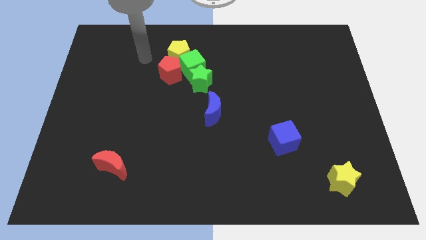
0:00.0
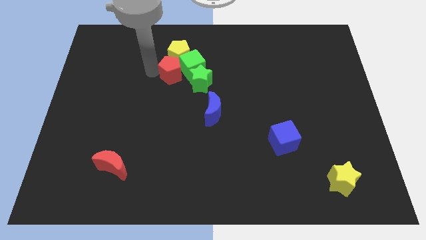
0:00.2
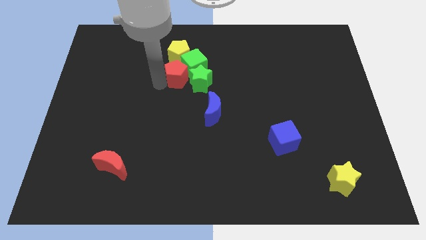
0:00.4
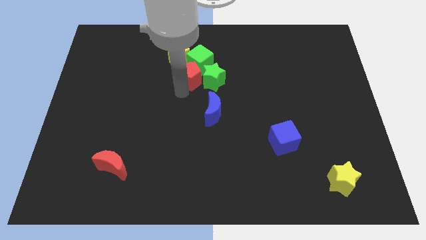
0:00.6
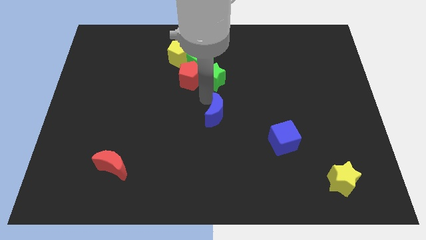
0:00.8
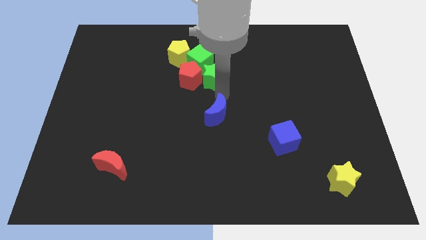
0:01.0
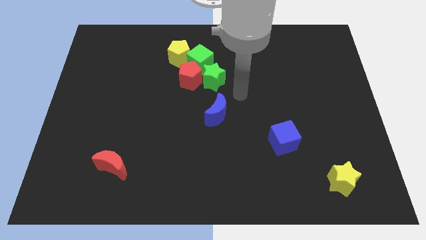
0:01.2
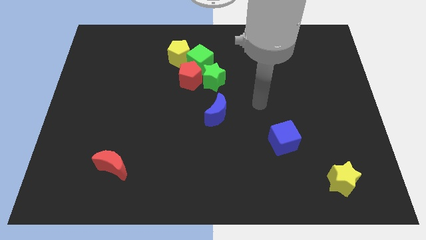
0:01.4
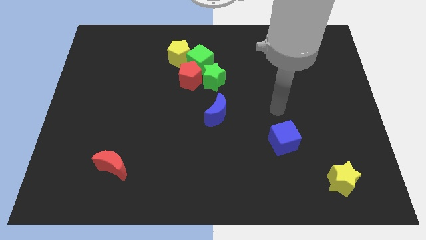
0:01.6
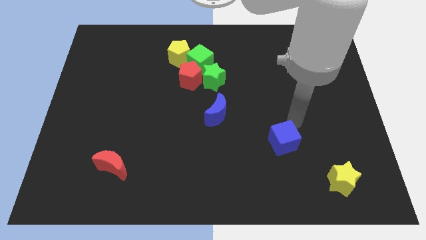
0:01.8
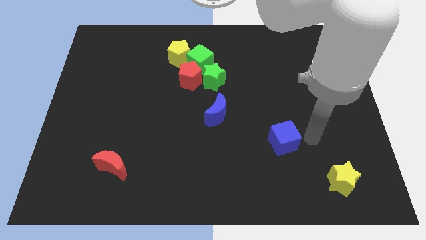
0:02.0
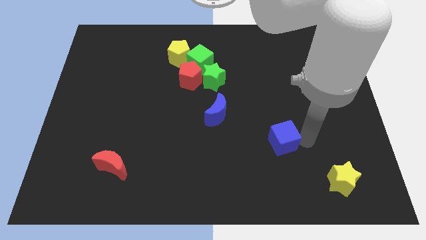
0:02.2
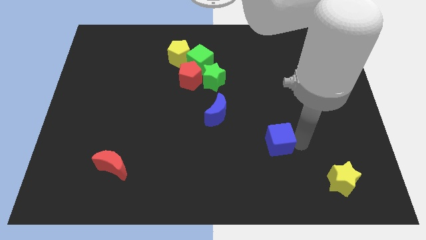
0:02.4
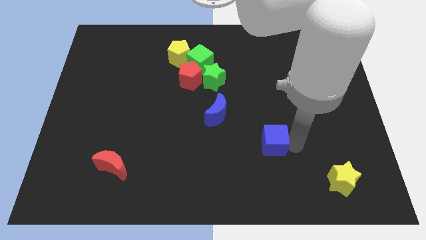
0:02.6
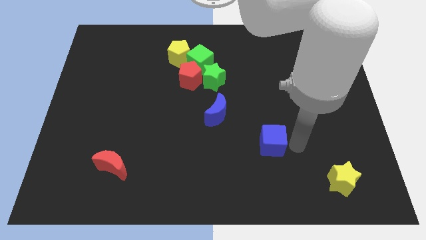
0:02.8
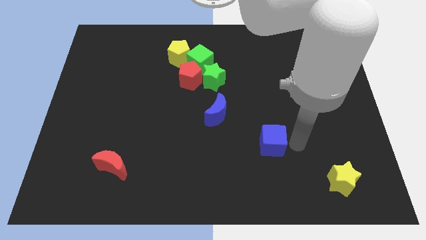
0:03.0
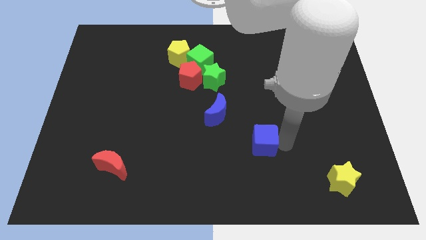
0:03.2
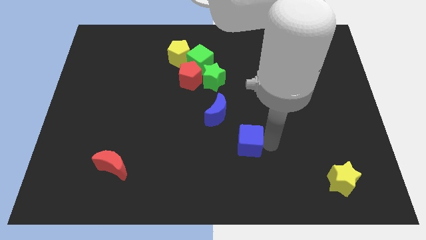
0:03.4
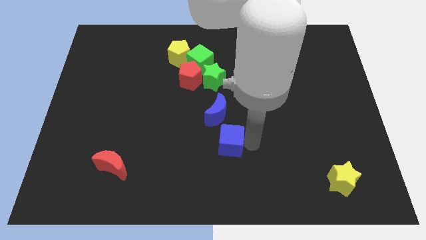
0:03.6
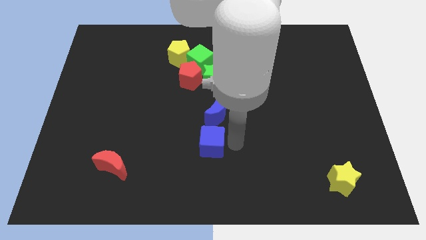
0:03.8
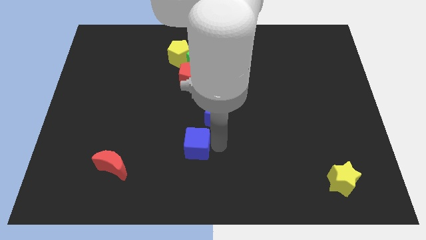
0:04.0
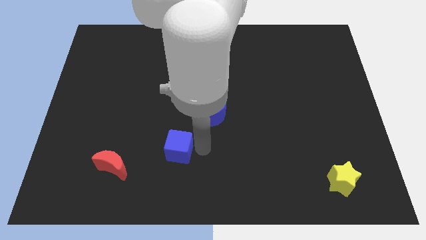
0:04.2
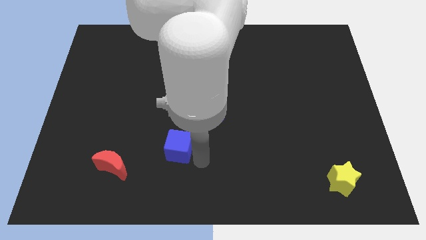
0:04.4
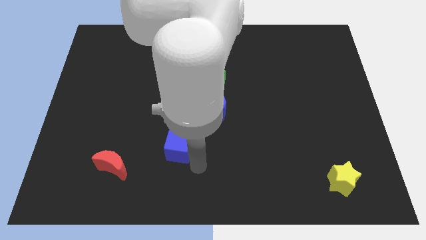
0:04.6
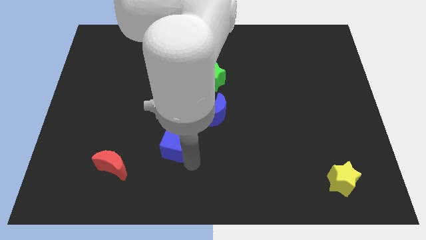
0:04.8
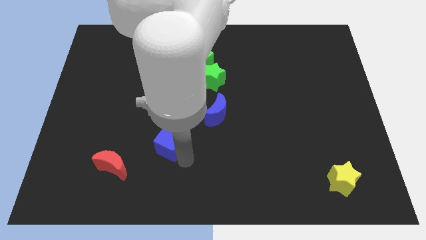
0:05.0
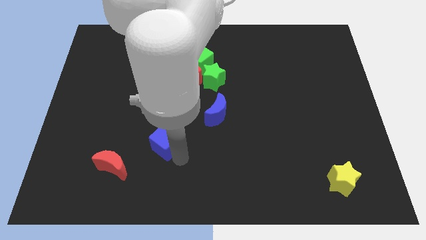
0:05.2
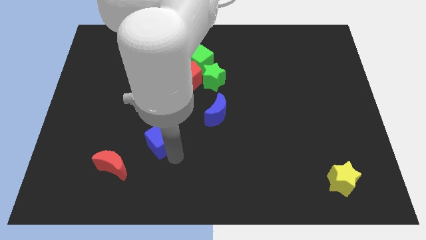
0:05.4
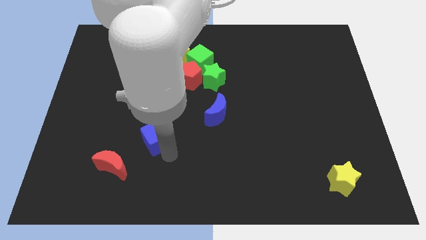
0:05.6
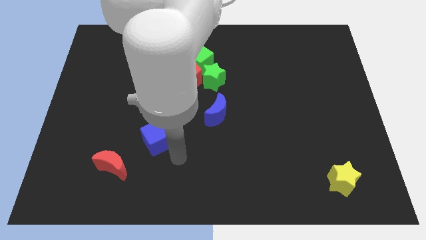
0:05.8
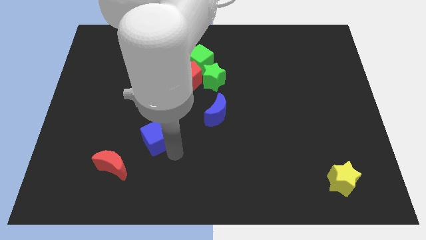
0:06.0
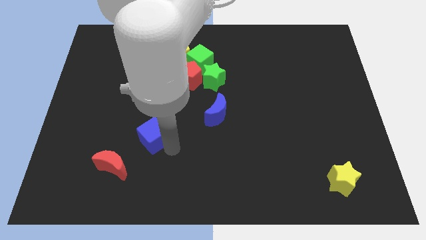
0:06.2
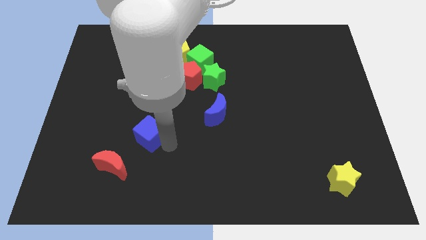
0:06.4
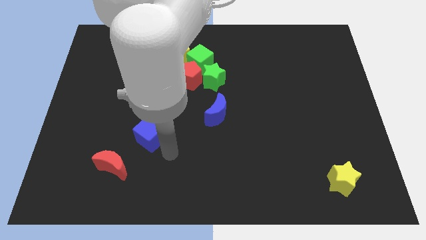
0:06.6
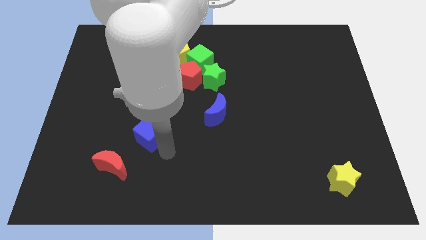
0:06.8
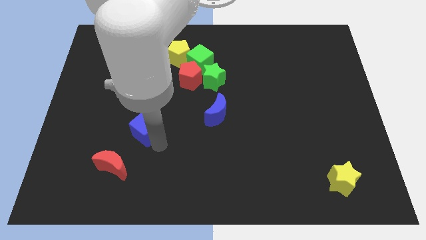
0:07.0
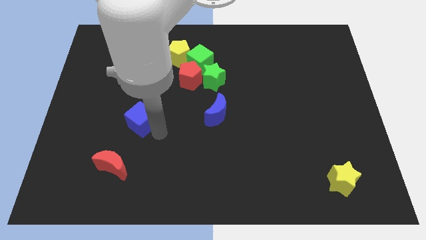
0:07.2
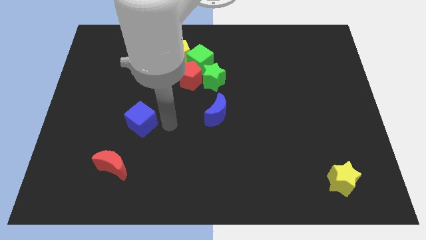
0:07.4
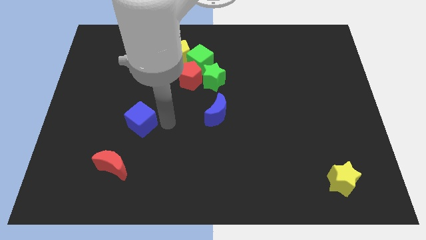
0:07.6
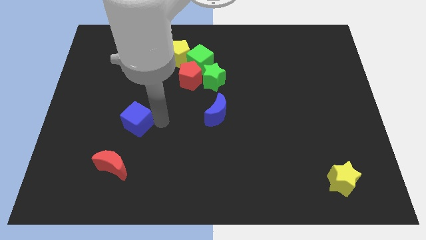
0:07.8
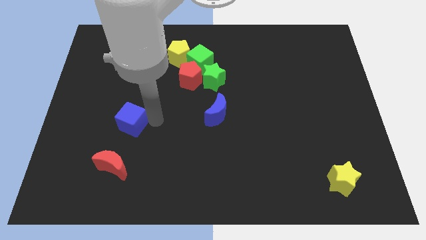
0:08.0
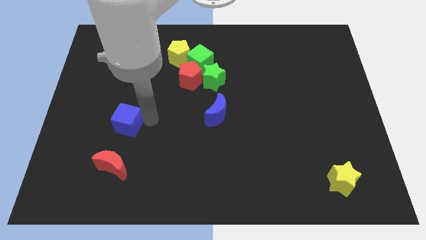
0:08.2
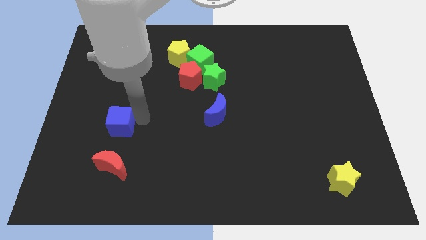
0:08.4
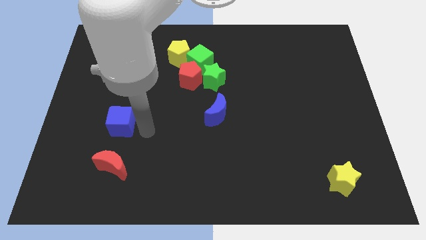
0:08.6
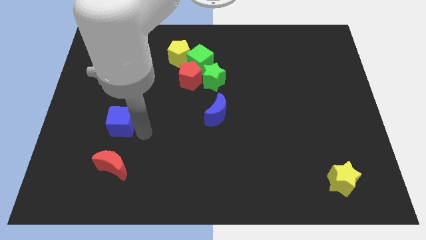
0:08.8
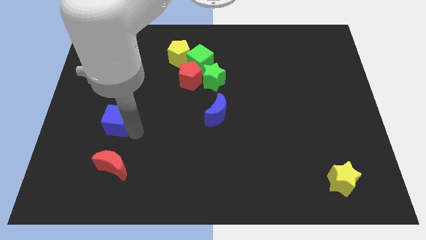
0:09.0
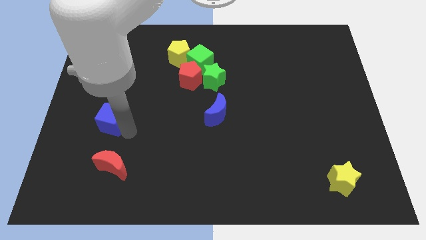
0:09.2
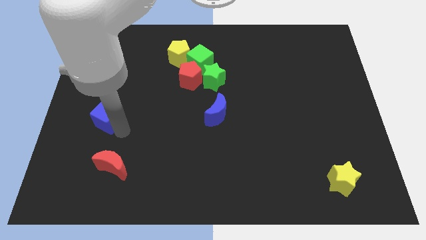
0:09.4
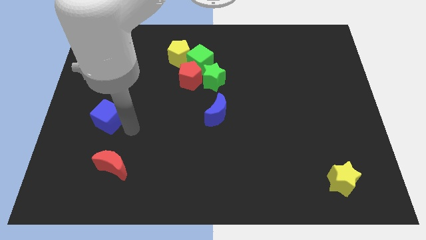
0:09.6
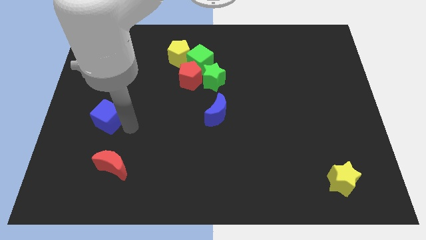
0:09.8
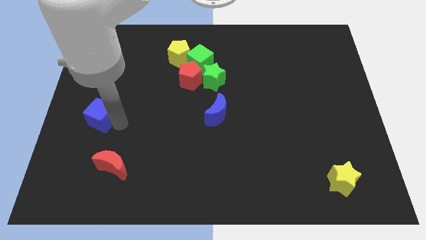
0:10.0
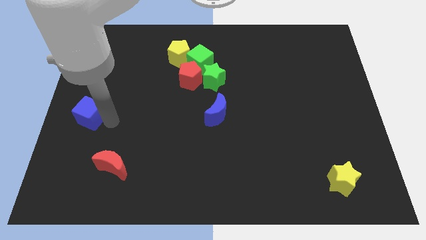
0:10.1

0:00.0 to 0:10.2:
move the blue cube to the left side of the board

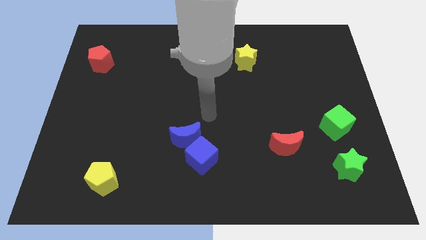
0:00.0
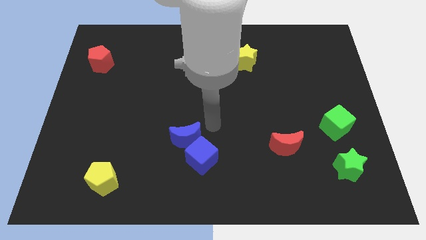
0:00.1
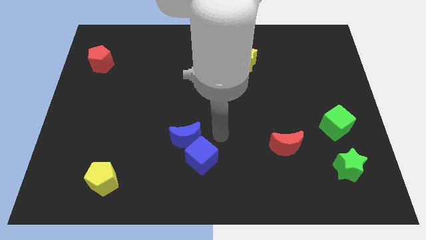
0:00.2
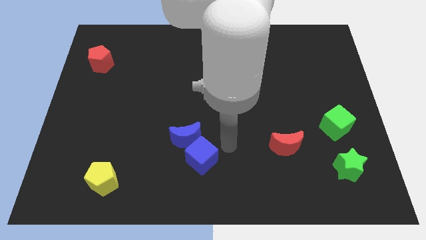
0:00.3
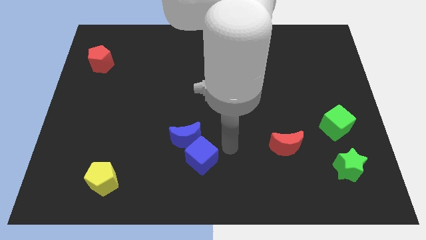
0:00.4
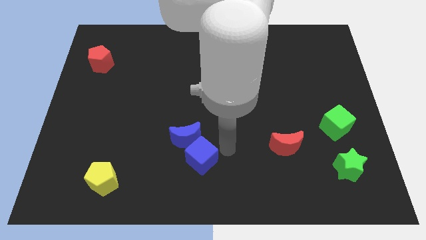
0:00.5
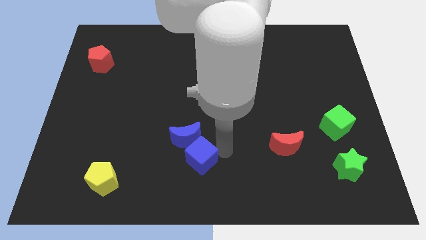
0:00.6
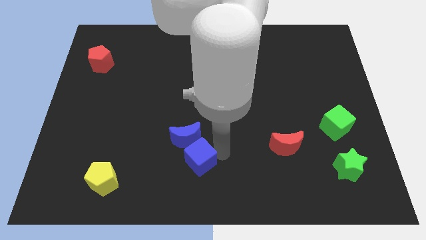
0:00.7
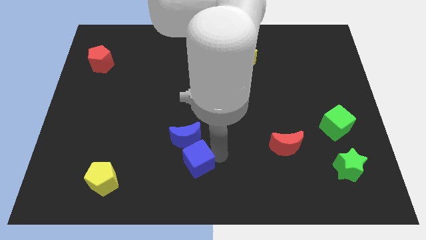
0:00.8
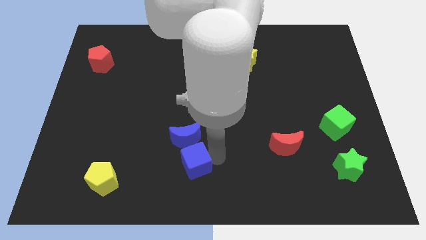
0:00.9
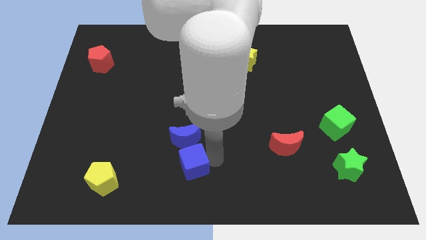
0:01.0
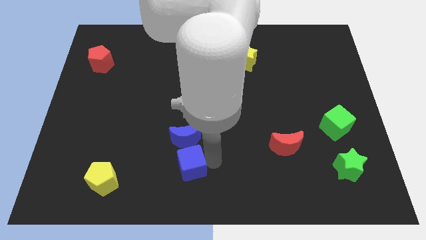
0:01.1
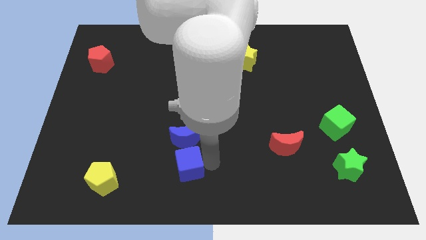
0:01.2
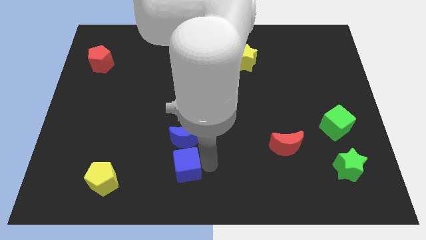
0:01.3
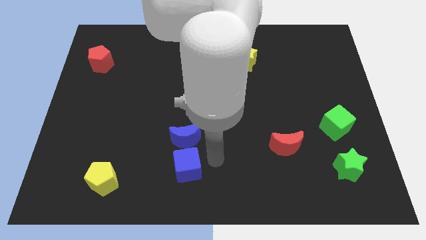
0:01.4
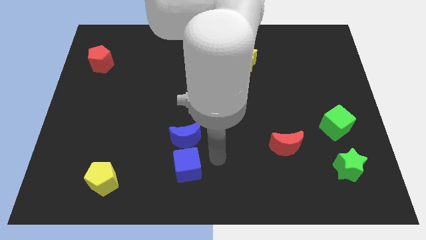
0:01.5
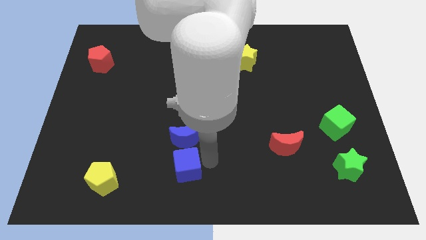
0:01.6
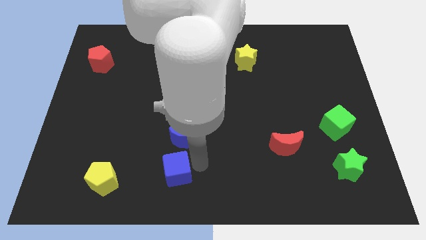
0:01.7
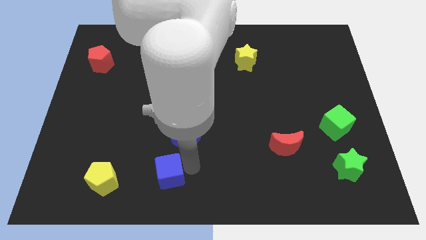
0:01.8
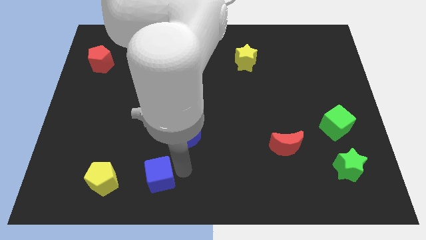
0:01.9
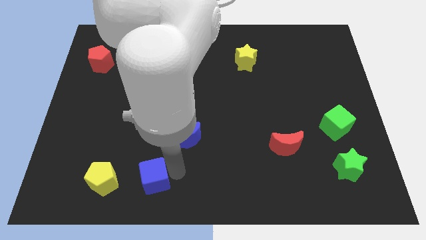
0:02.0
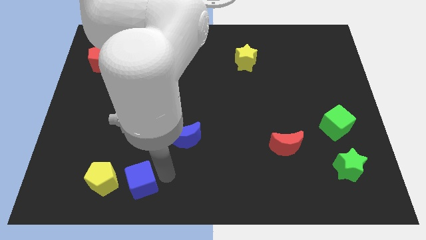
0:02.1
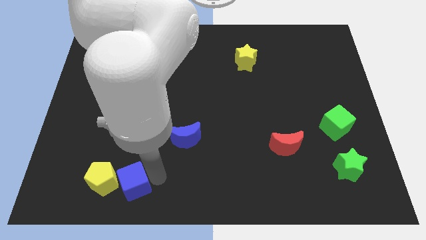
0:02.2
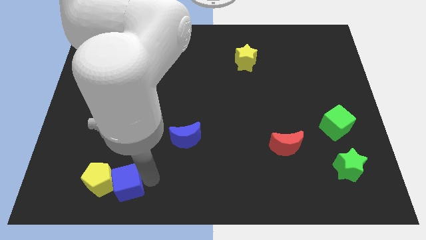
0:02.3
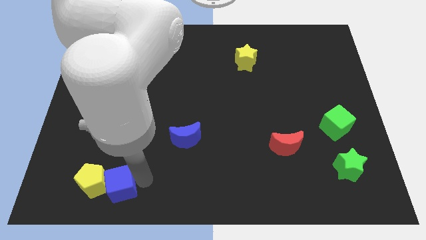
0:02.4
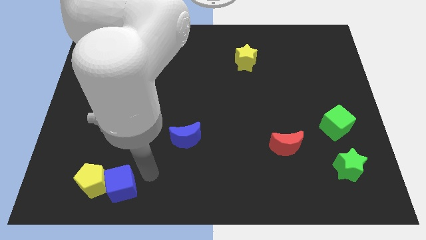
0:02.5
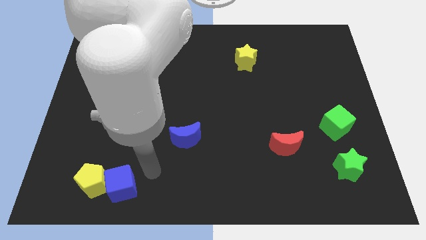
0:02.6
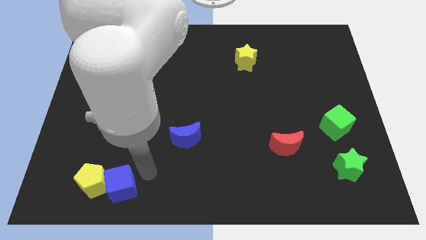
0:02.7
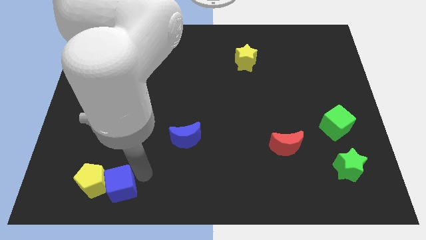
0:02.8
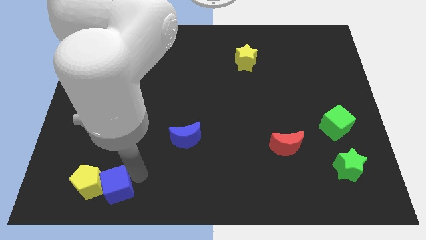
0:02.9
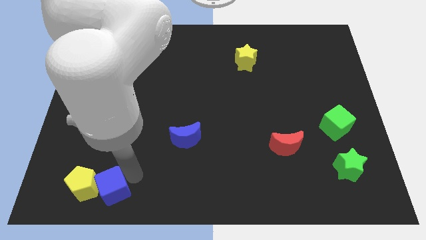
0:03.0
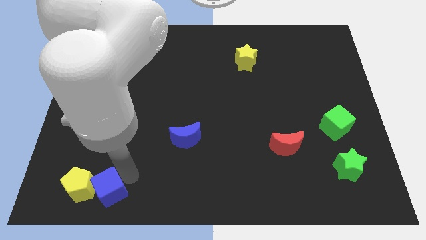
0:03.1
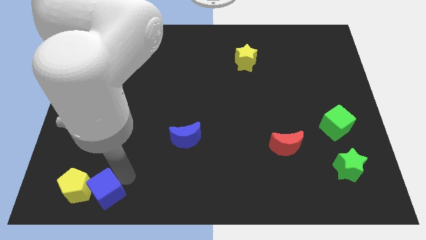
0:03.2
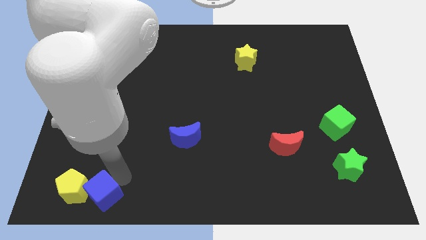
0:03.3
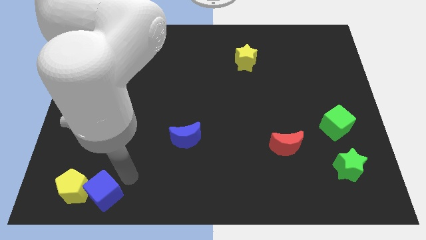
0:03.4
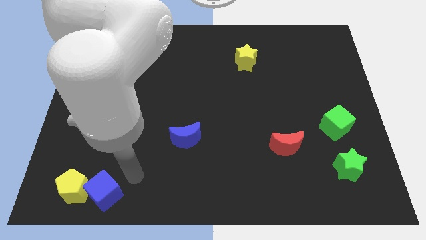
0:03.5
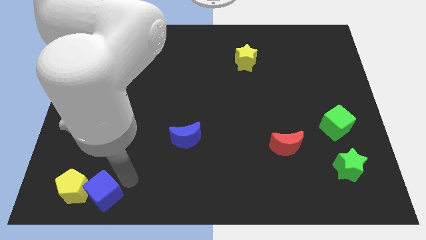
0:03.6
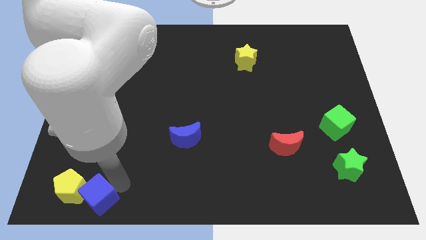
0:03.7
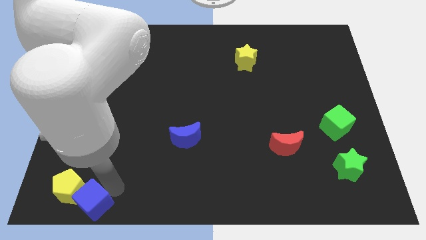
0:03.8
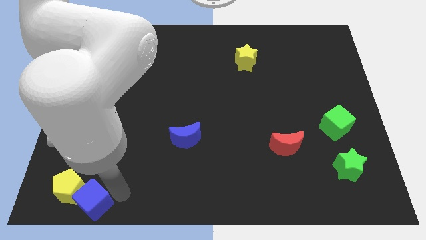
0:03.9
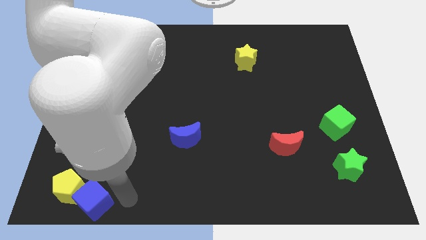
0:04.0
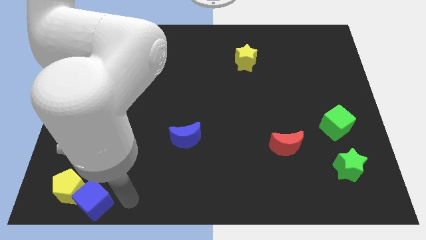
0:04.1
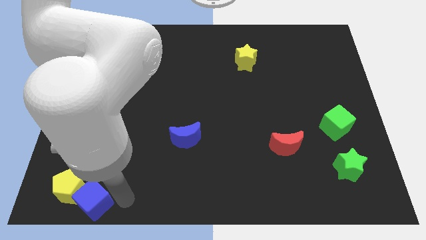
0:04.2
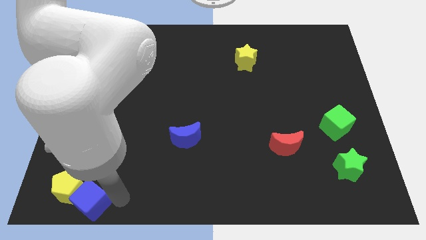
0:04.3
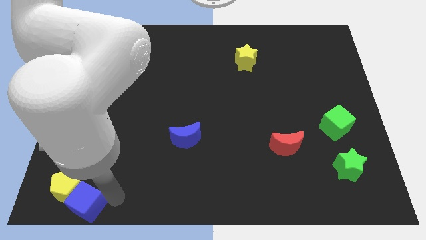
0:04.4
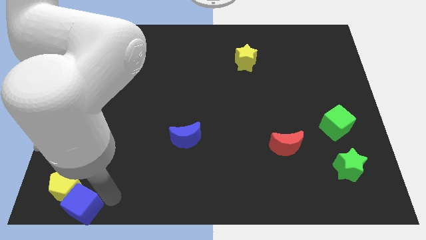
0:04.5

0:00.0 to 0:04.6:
put the blue cube to the lower left corner
